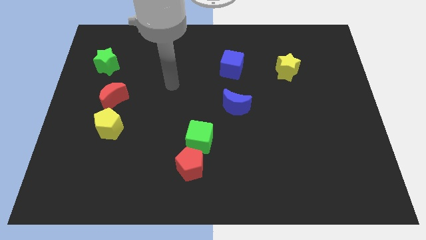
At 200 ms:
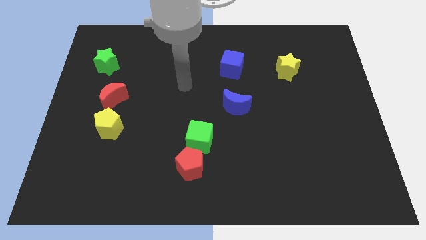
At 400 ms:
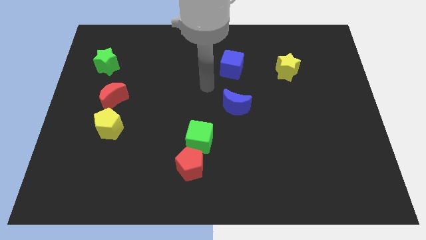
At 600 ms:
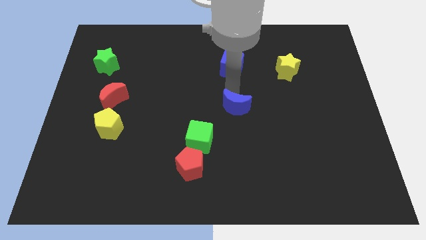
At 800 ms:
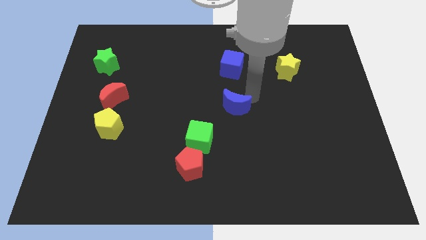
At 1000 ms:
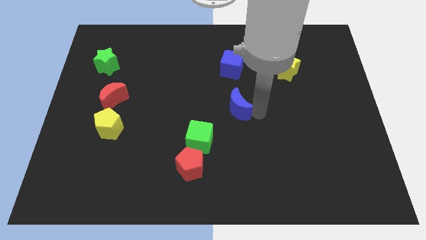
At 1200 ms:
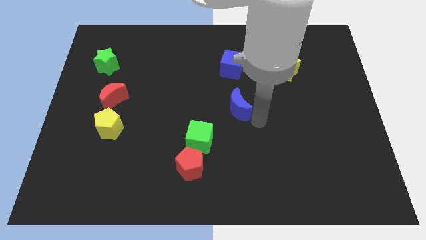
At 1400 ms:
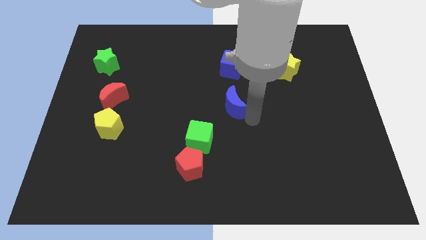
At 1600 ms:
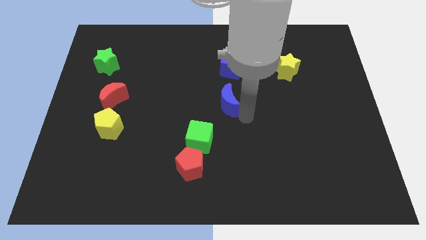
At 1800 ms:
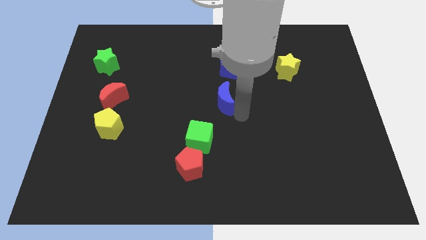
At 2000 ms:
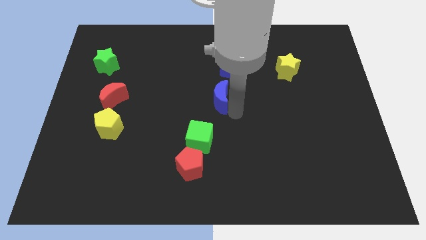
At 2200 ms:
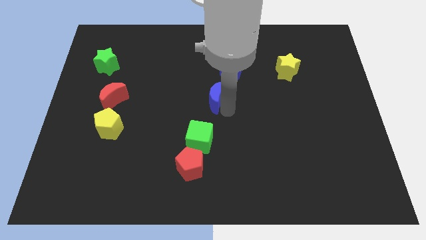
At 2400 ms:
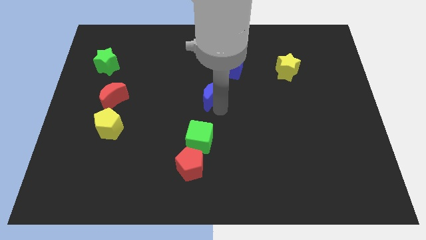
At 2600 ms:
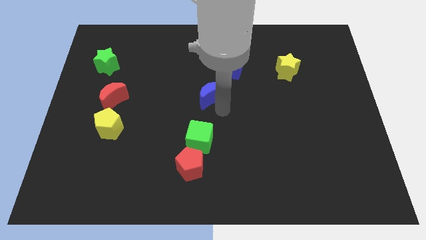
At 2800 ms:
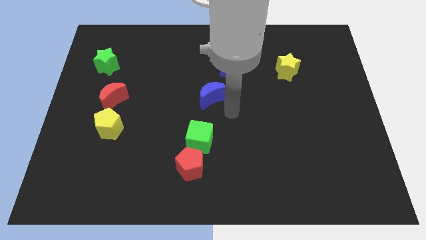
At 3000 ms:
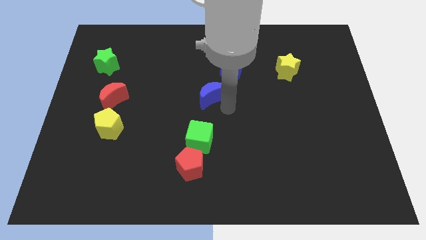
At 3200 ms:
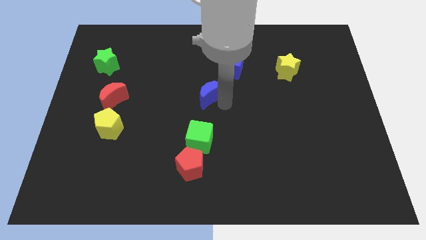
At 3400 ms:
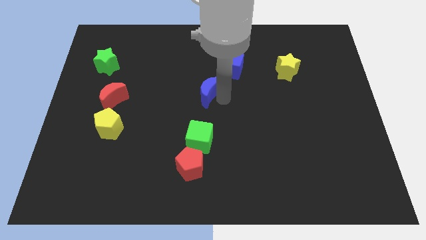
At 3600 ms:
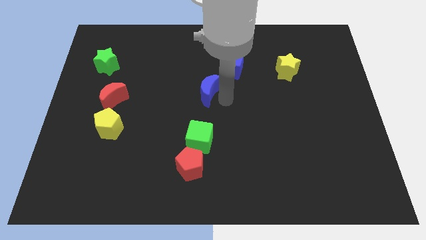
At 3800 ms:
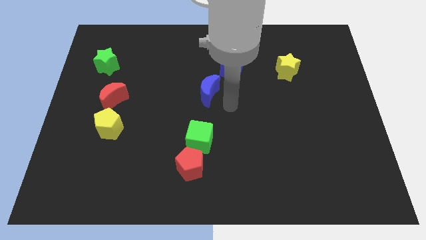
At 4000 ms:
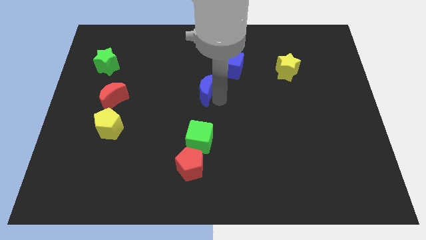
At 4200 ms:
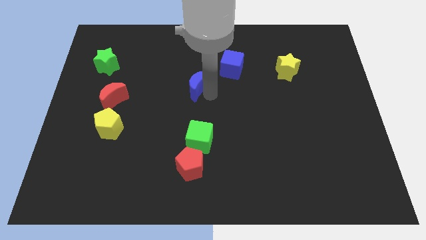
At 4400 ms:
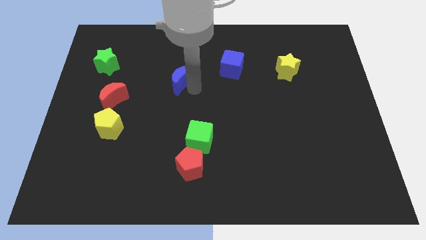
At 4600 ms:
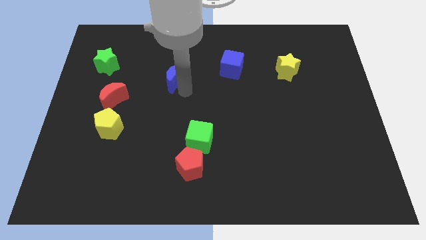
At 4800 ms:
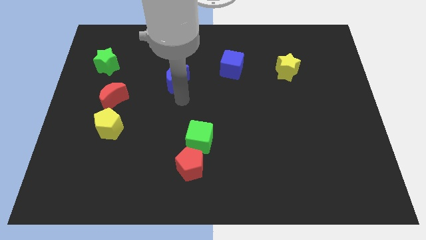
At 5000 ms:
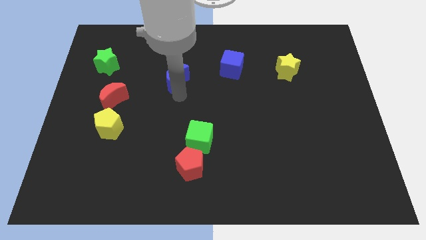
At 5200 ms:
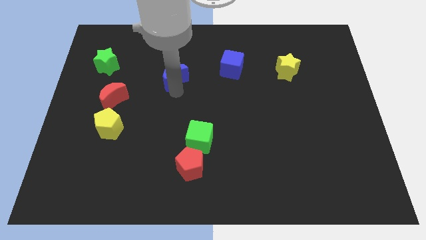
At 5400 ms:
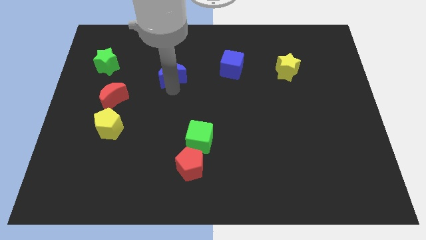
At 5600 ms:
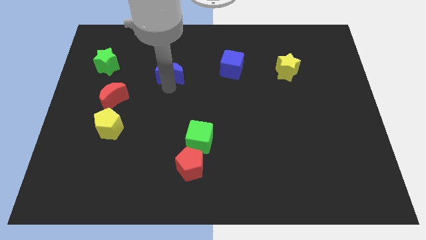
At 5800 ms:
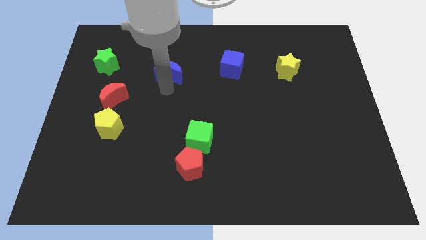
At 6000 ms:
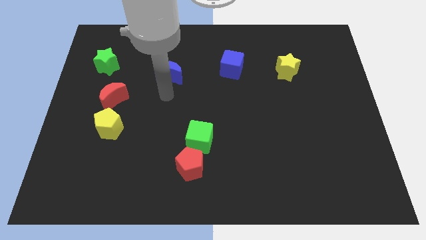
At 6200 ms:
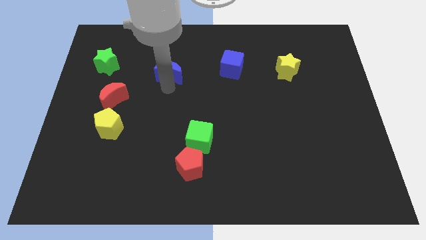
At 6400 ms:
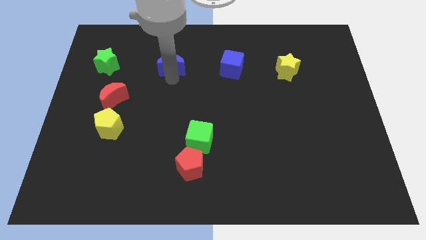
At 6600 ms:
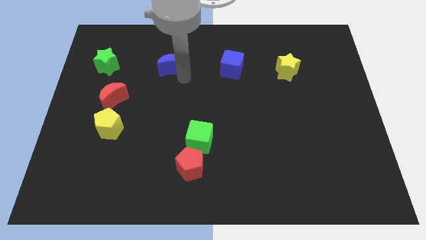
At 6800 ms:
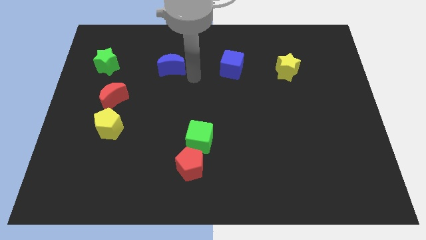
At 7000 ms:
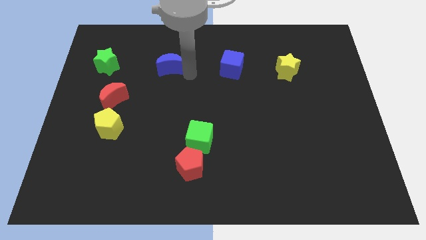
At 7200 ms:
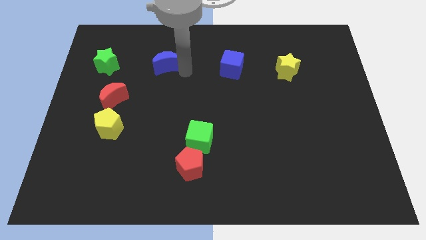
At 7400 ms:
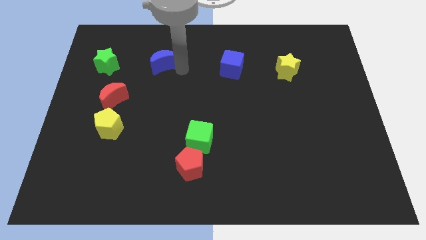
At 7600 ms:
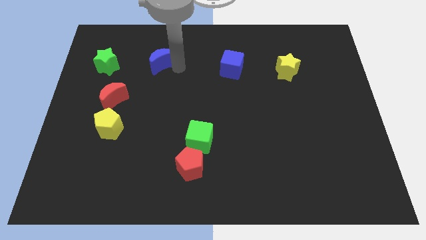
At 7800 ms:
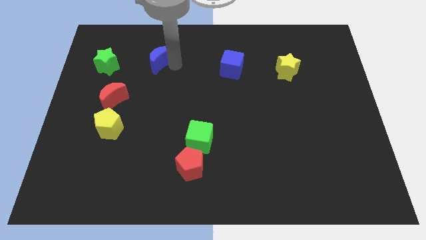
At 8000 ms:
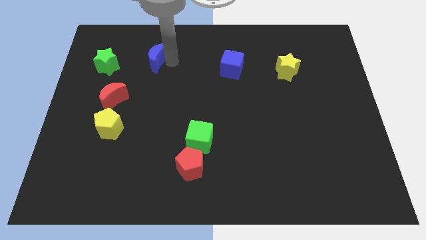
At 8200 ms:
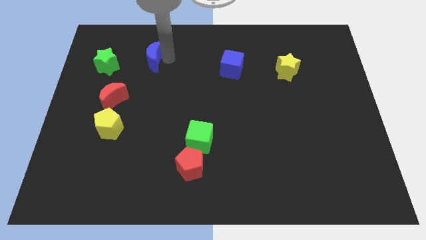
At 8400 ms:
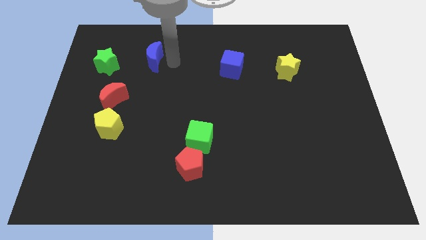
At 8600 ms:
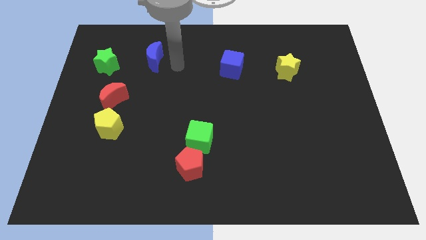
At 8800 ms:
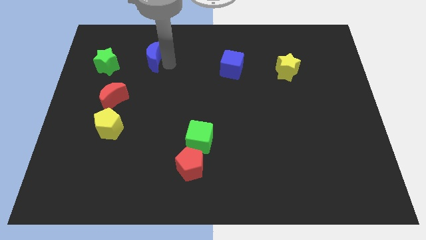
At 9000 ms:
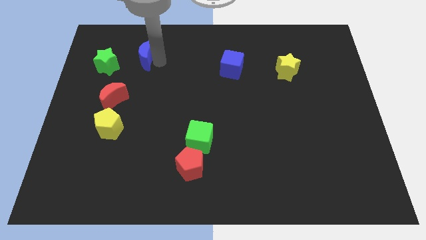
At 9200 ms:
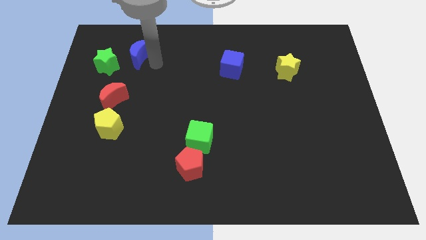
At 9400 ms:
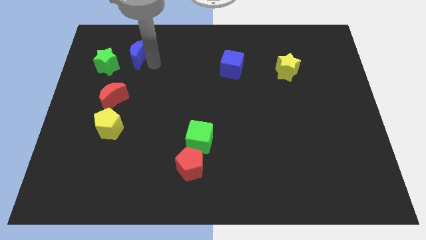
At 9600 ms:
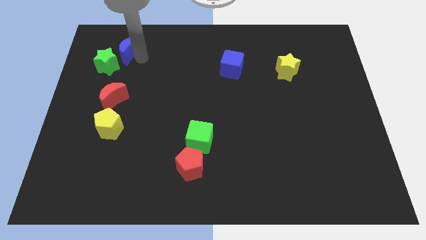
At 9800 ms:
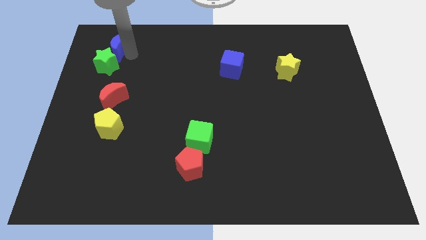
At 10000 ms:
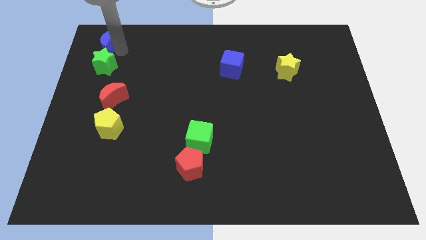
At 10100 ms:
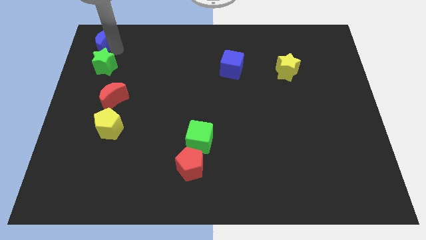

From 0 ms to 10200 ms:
push the blue moon to the upper left corner

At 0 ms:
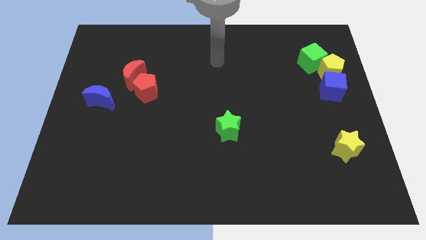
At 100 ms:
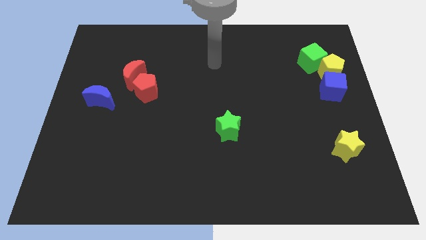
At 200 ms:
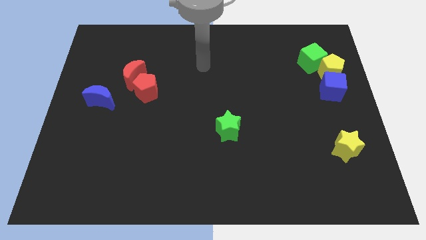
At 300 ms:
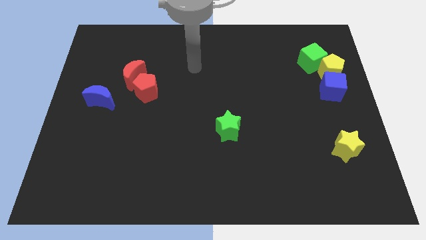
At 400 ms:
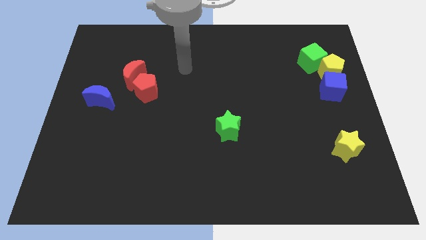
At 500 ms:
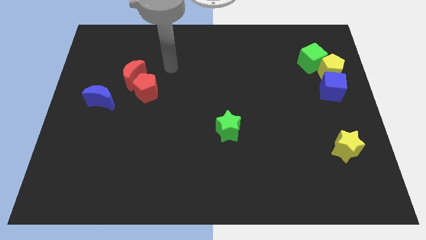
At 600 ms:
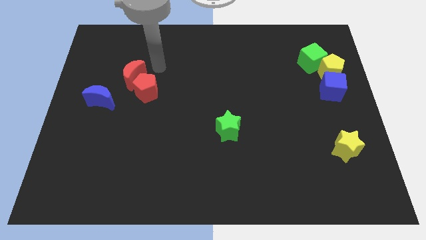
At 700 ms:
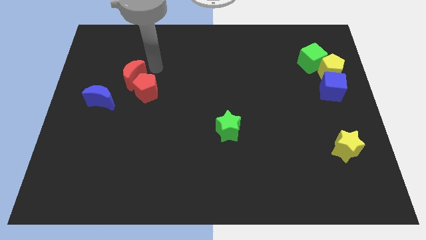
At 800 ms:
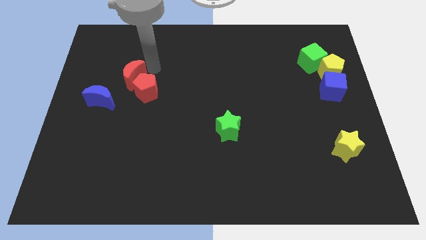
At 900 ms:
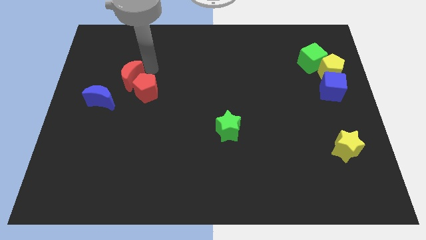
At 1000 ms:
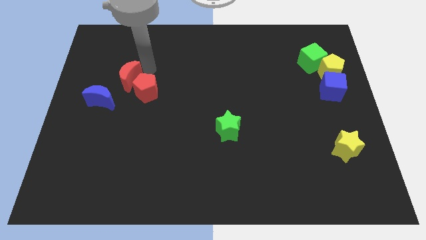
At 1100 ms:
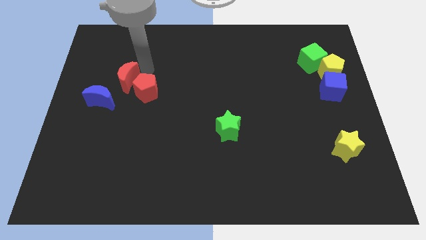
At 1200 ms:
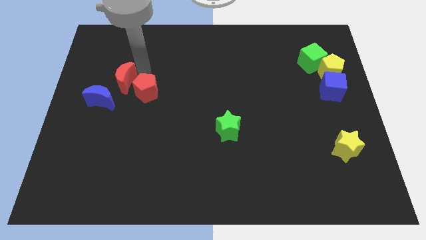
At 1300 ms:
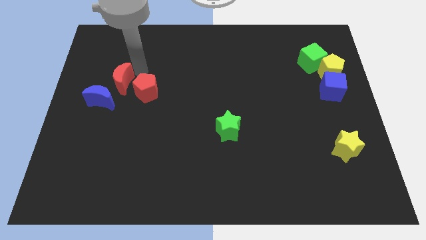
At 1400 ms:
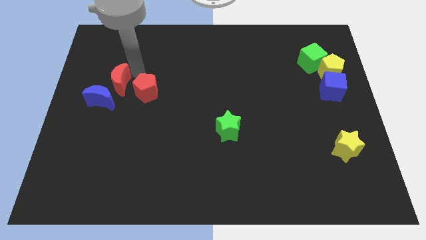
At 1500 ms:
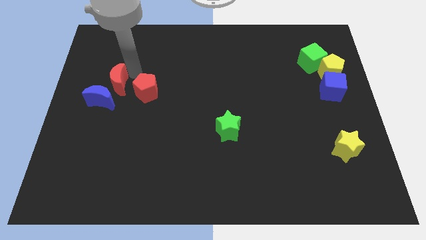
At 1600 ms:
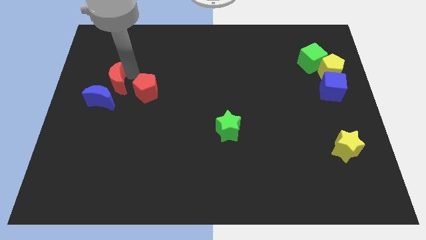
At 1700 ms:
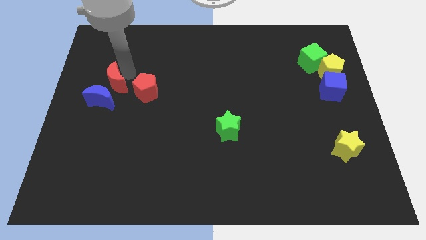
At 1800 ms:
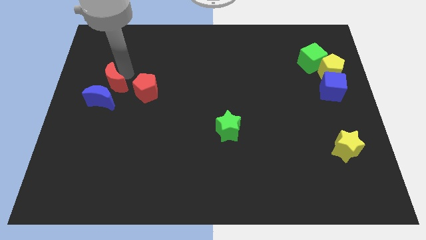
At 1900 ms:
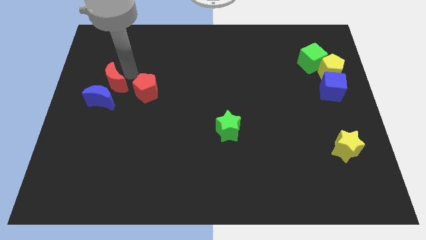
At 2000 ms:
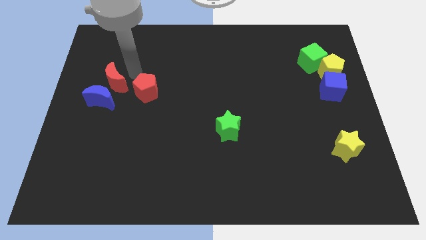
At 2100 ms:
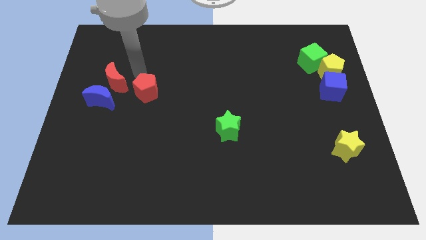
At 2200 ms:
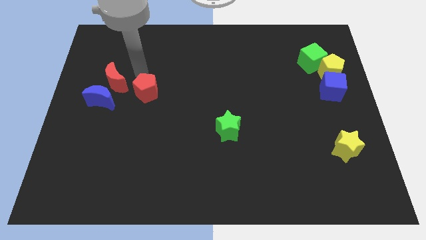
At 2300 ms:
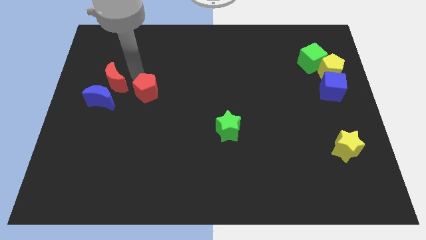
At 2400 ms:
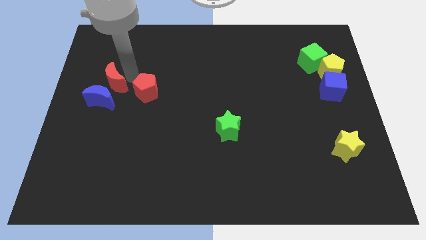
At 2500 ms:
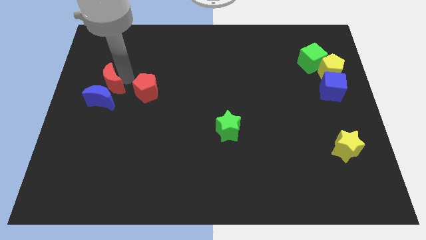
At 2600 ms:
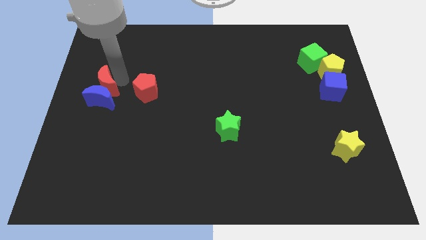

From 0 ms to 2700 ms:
slide the red moon to the left side of the board
